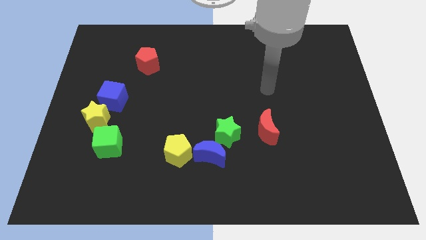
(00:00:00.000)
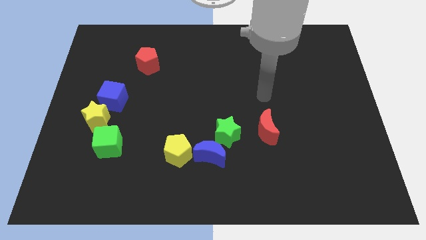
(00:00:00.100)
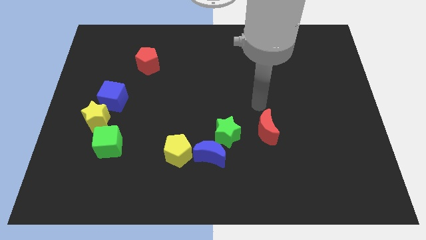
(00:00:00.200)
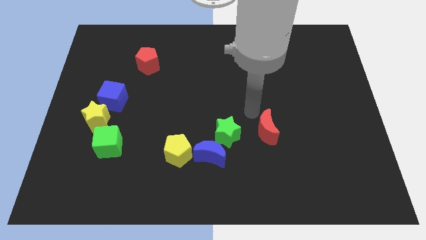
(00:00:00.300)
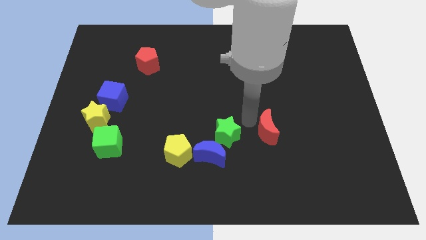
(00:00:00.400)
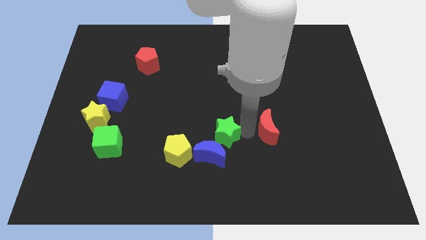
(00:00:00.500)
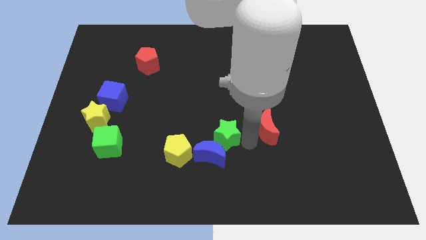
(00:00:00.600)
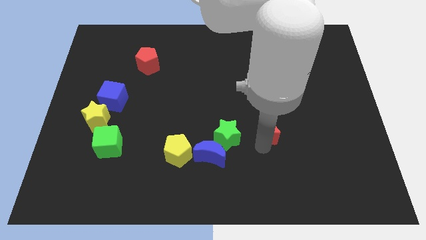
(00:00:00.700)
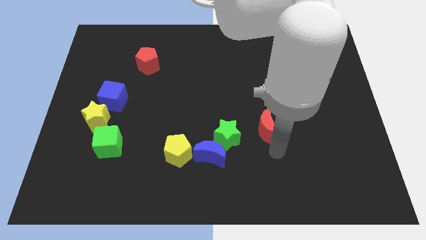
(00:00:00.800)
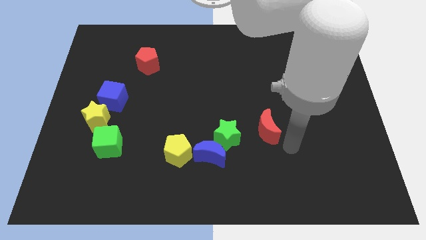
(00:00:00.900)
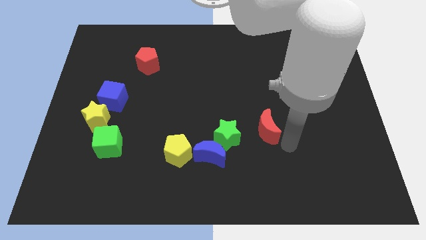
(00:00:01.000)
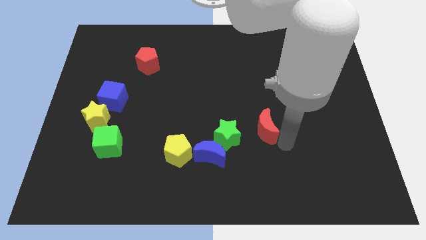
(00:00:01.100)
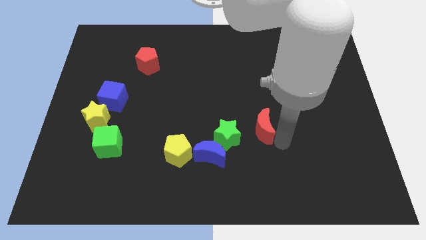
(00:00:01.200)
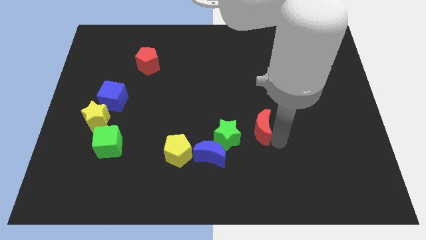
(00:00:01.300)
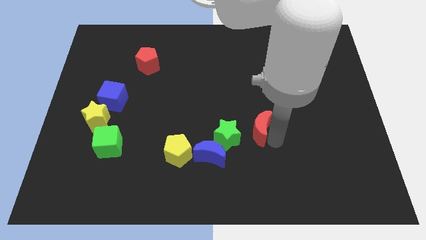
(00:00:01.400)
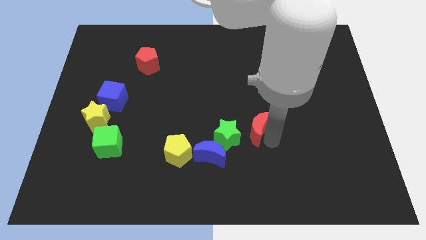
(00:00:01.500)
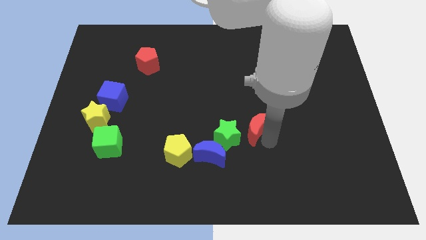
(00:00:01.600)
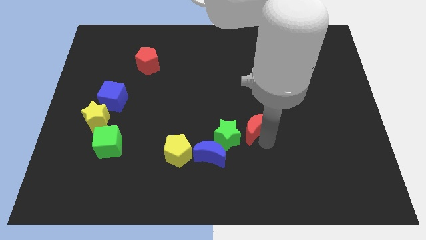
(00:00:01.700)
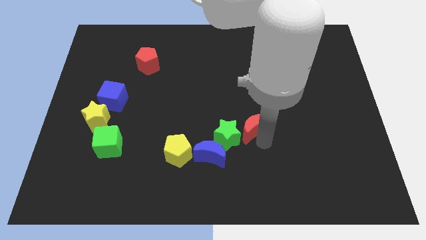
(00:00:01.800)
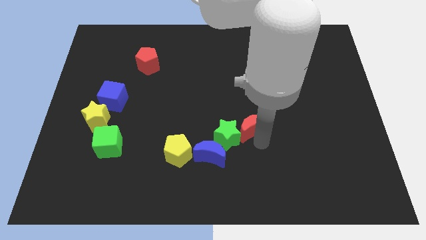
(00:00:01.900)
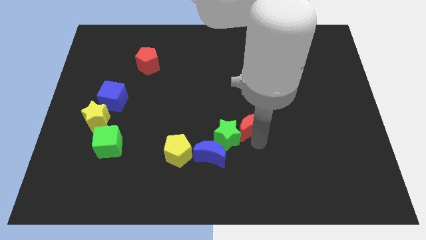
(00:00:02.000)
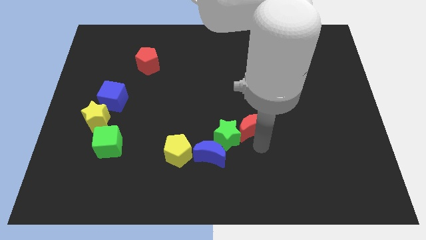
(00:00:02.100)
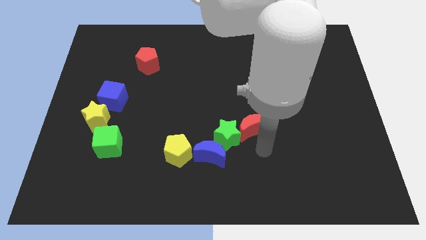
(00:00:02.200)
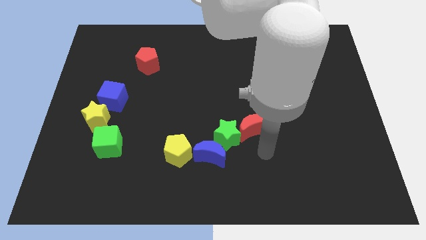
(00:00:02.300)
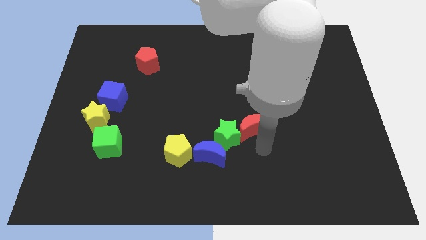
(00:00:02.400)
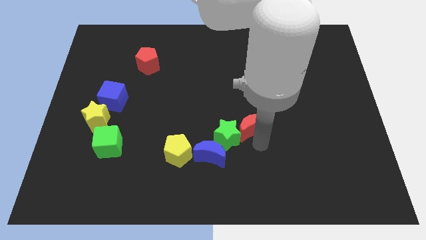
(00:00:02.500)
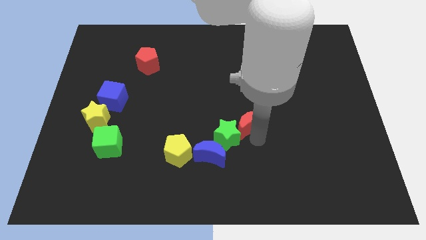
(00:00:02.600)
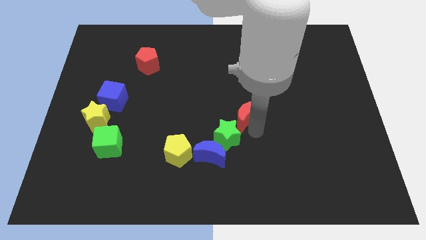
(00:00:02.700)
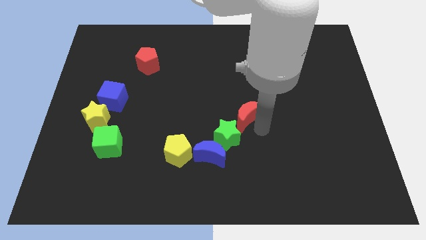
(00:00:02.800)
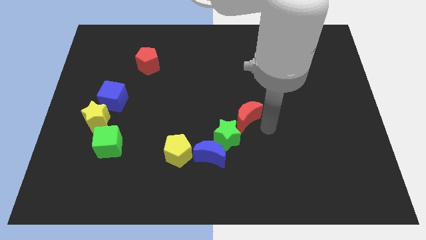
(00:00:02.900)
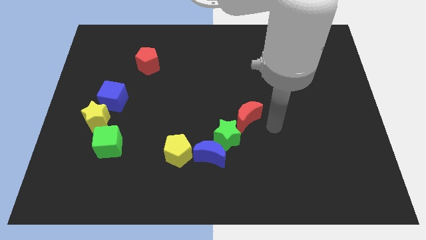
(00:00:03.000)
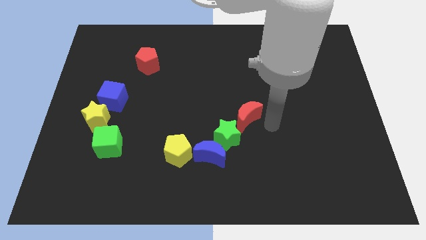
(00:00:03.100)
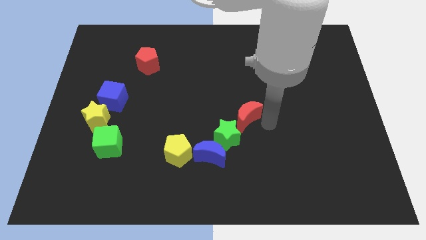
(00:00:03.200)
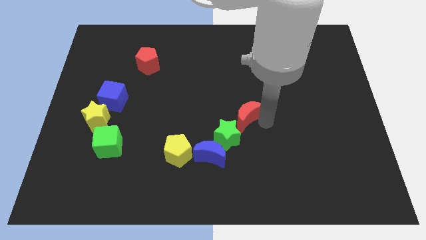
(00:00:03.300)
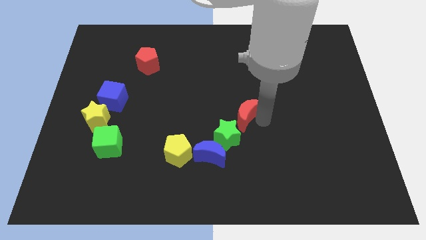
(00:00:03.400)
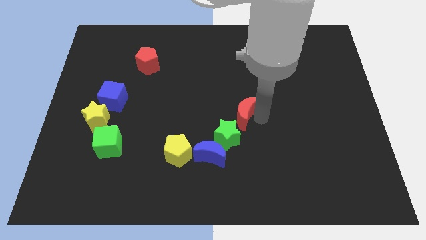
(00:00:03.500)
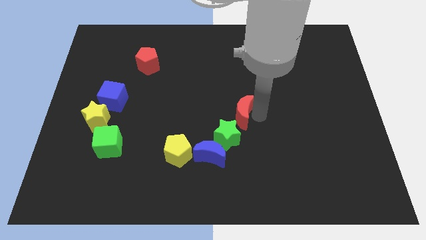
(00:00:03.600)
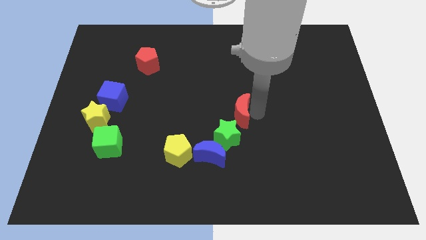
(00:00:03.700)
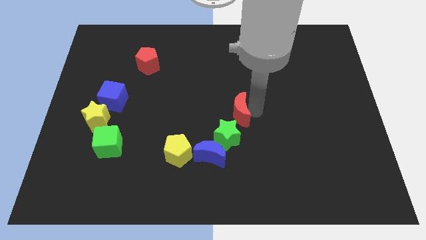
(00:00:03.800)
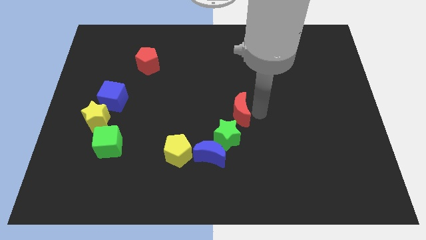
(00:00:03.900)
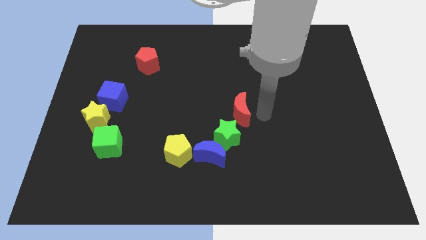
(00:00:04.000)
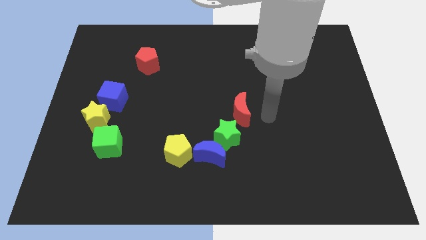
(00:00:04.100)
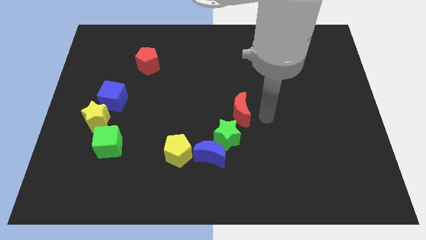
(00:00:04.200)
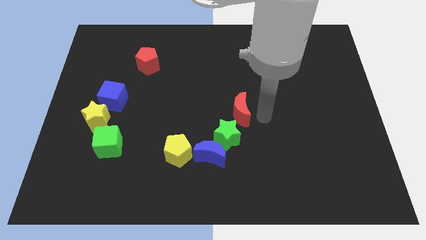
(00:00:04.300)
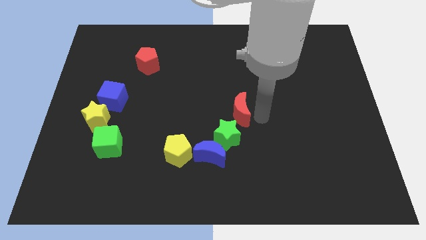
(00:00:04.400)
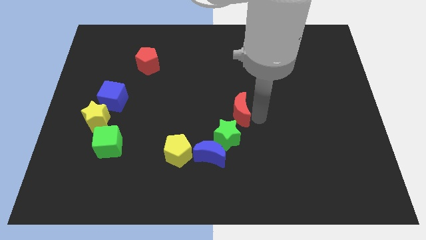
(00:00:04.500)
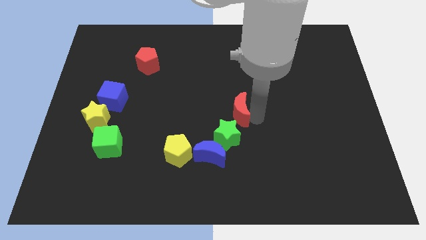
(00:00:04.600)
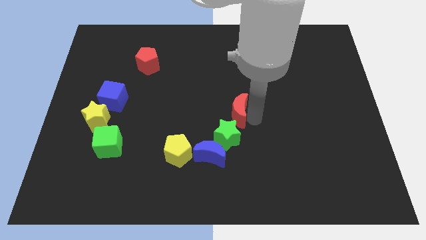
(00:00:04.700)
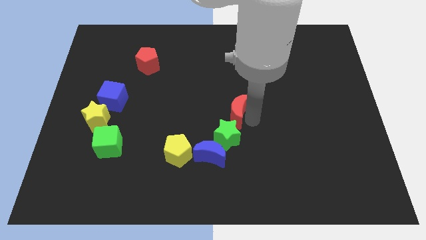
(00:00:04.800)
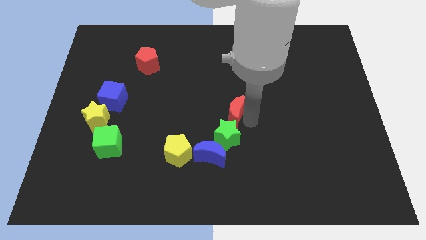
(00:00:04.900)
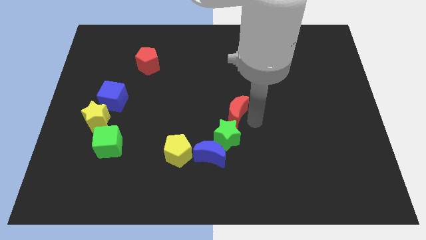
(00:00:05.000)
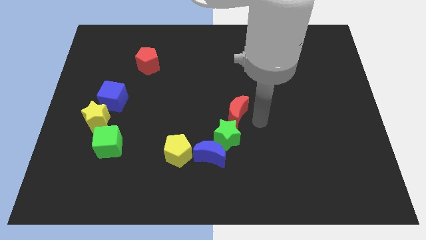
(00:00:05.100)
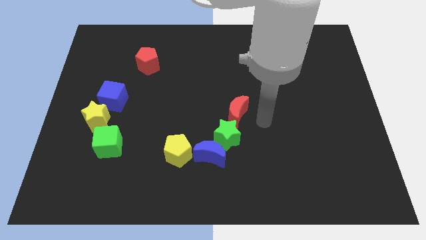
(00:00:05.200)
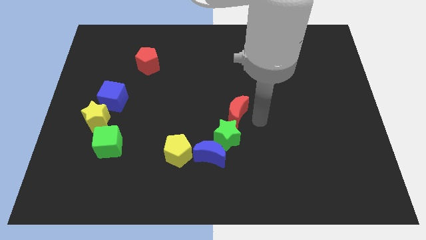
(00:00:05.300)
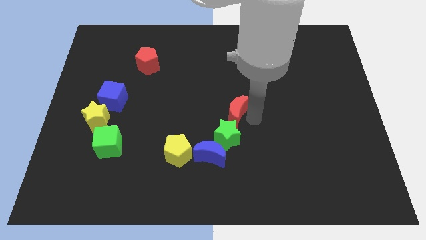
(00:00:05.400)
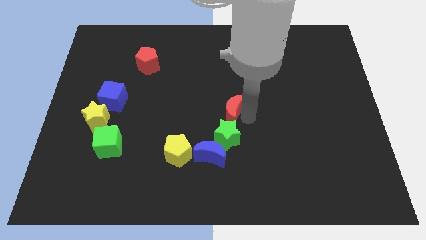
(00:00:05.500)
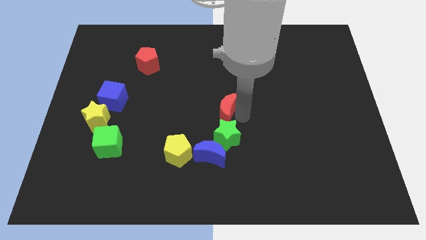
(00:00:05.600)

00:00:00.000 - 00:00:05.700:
move the red moon slightly to the left

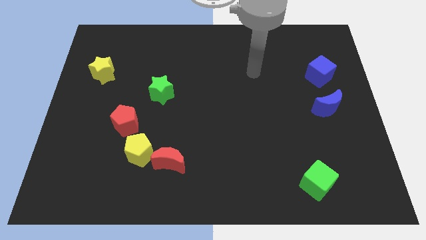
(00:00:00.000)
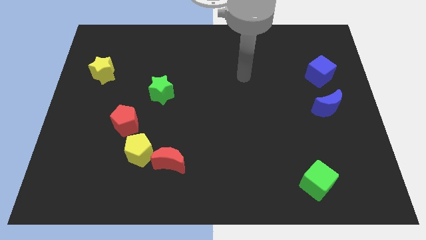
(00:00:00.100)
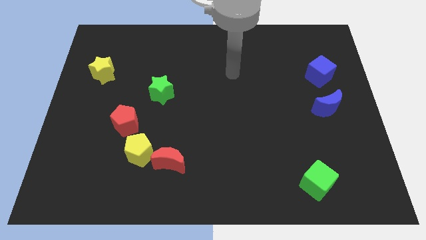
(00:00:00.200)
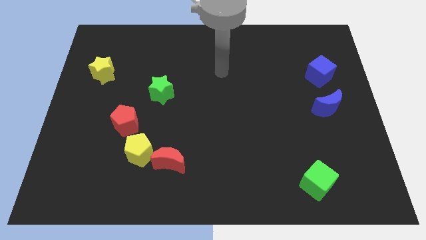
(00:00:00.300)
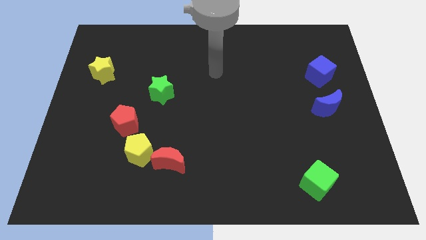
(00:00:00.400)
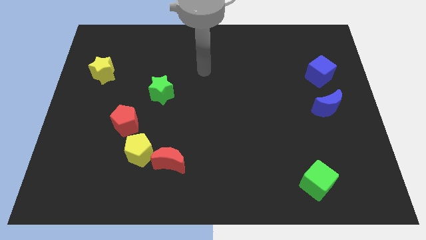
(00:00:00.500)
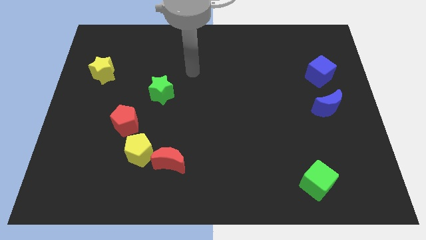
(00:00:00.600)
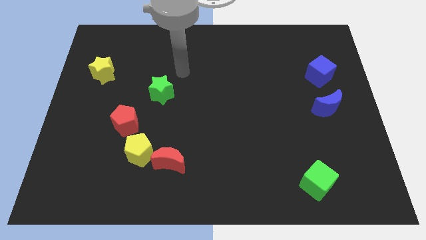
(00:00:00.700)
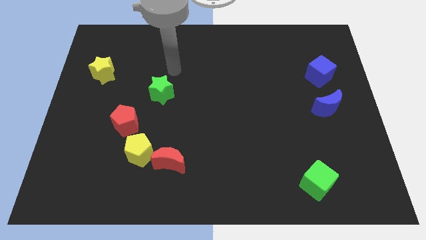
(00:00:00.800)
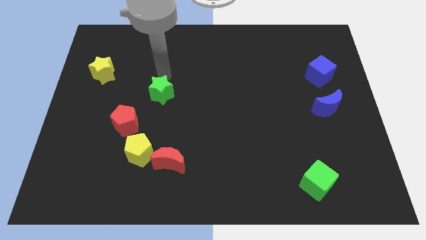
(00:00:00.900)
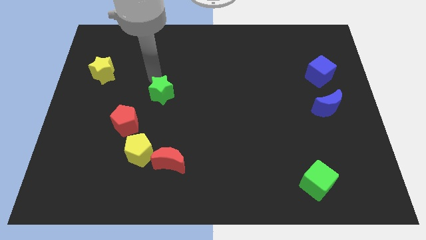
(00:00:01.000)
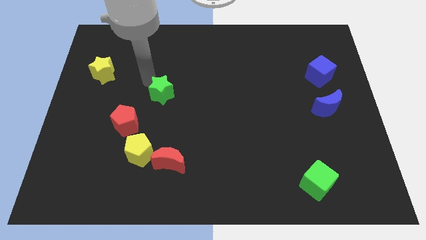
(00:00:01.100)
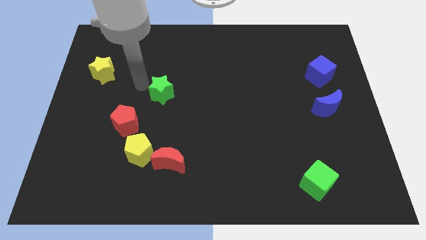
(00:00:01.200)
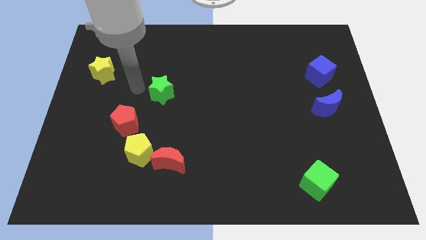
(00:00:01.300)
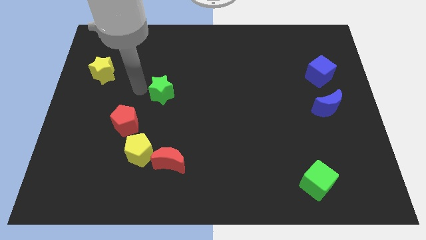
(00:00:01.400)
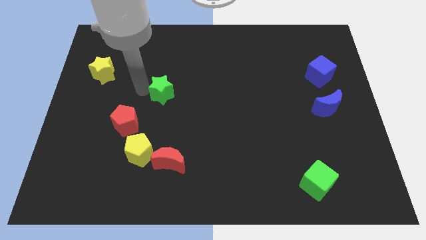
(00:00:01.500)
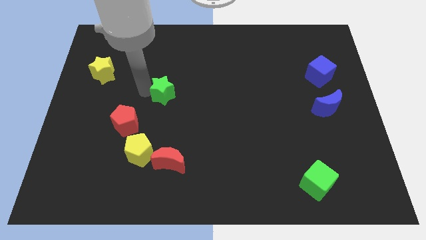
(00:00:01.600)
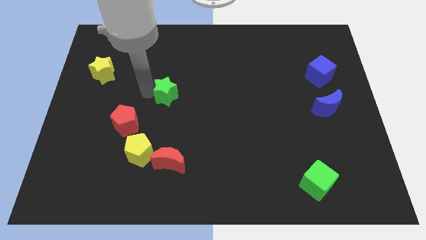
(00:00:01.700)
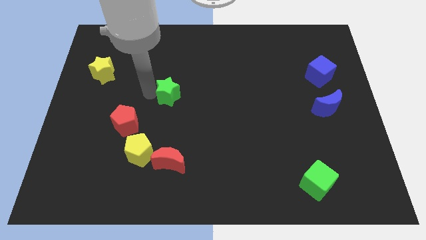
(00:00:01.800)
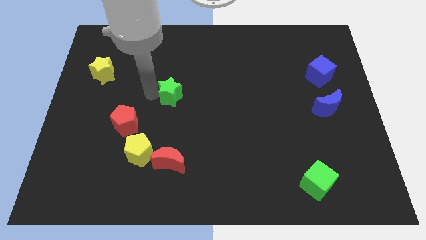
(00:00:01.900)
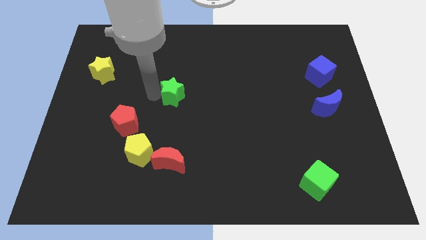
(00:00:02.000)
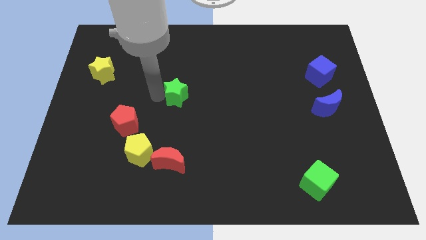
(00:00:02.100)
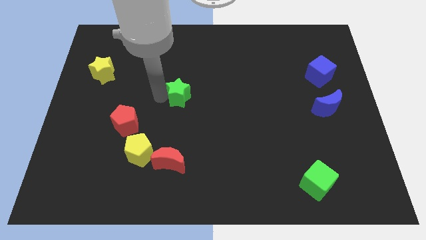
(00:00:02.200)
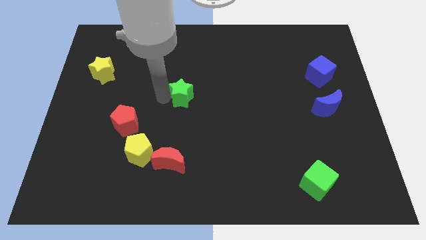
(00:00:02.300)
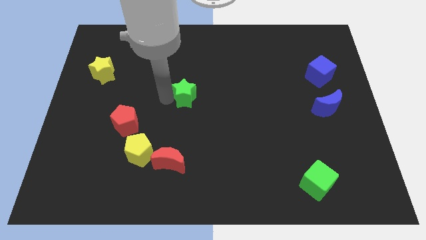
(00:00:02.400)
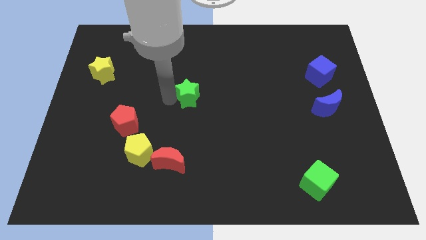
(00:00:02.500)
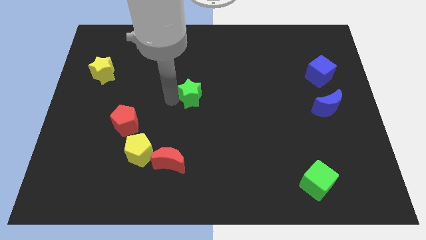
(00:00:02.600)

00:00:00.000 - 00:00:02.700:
slide the green star to the right somewhat
